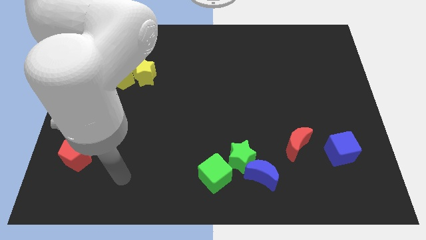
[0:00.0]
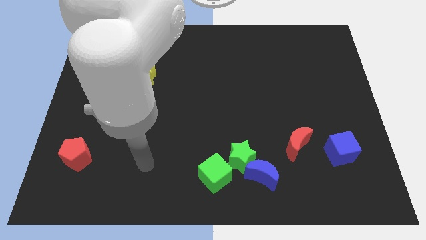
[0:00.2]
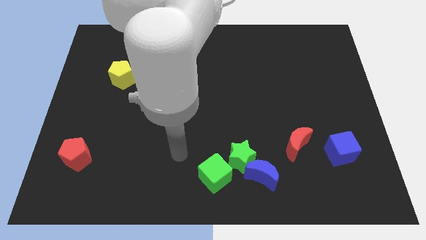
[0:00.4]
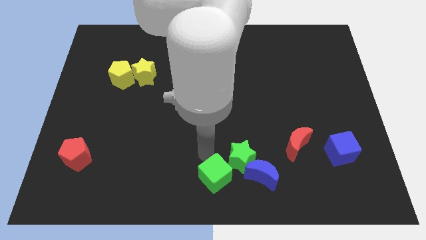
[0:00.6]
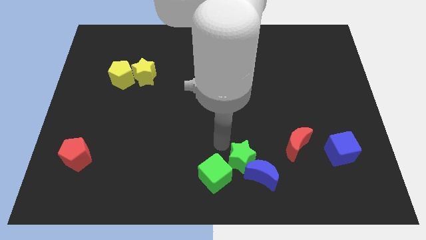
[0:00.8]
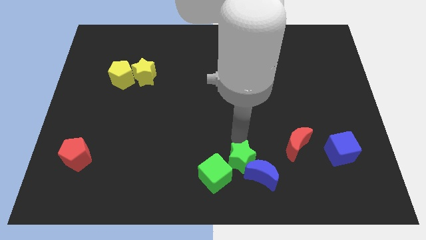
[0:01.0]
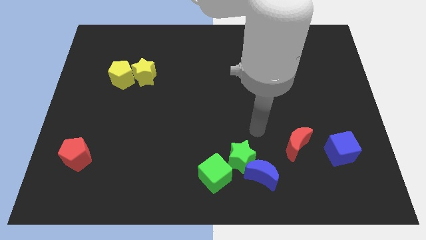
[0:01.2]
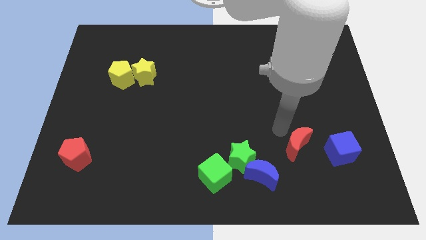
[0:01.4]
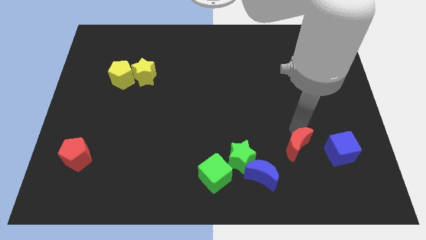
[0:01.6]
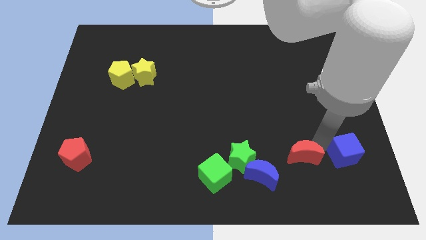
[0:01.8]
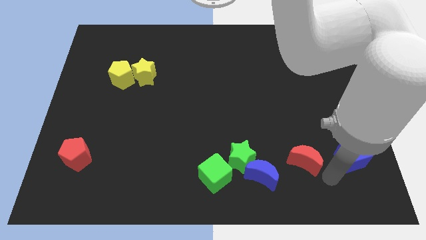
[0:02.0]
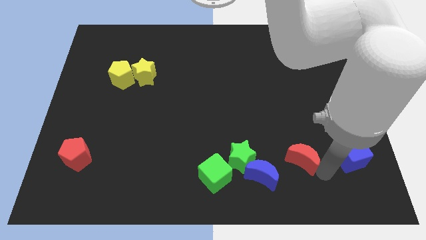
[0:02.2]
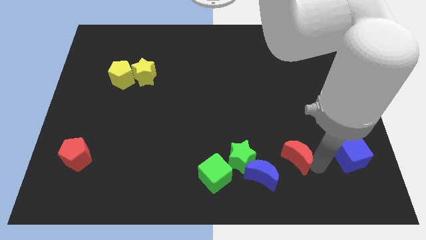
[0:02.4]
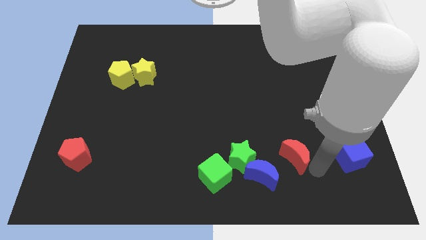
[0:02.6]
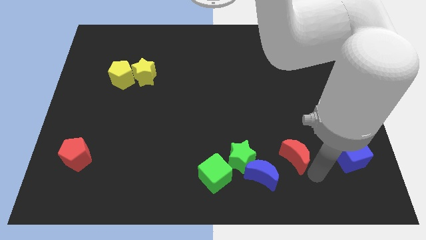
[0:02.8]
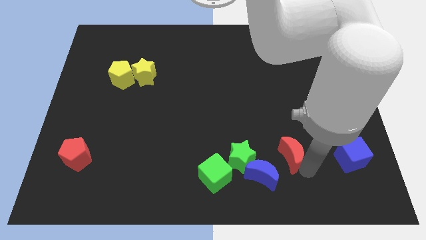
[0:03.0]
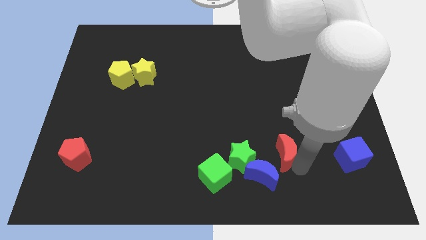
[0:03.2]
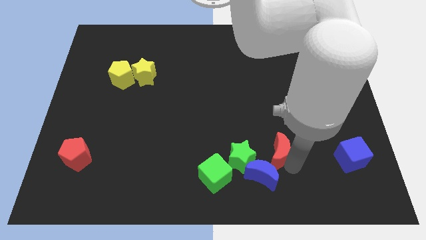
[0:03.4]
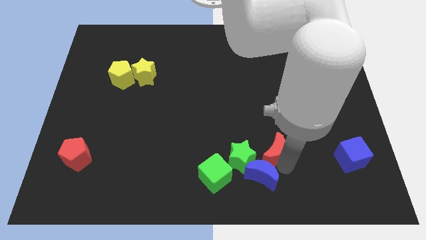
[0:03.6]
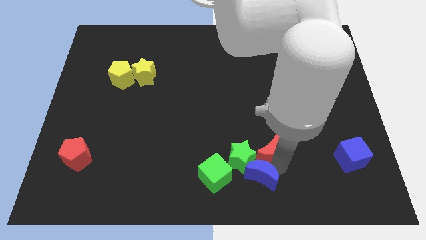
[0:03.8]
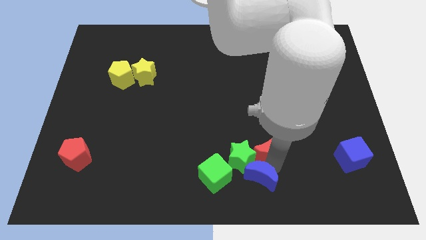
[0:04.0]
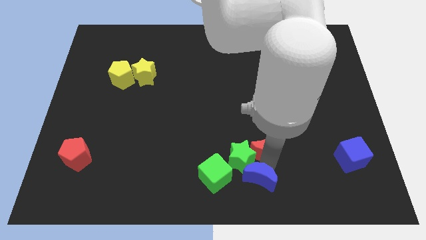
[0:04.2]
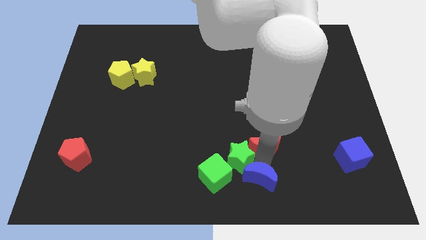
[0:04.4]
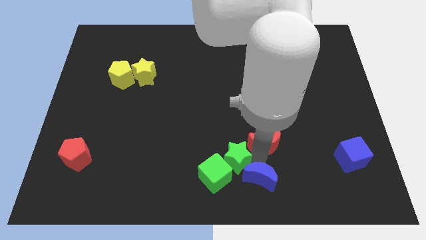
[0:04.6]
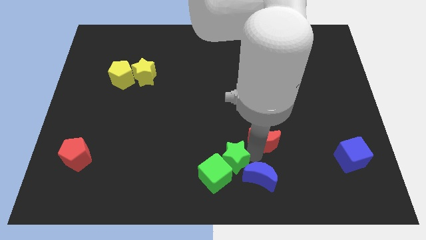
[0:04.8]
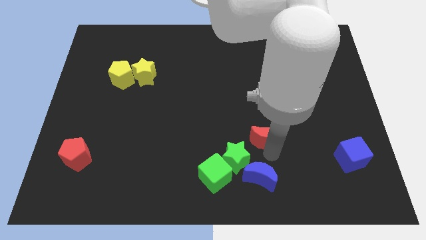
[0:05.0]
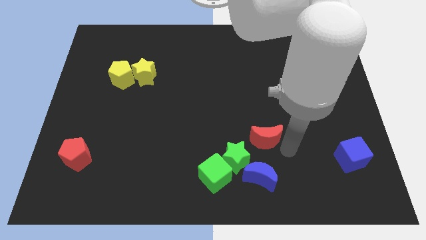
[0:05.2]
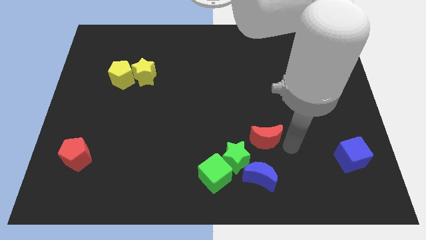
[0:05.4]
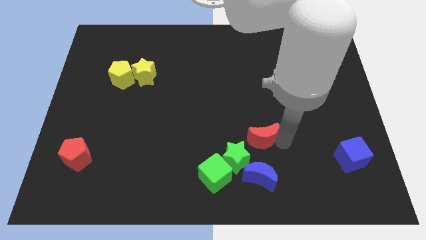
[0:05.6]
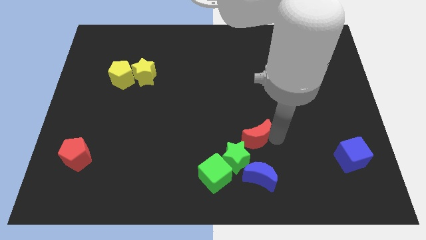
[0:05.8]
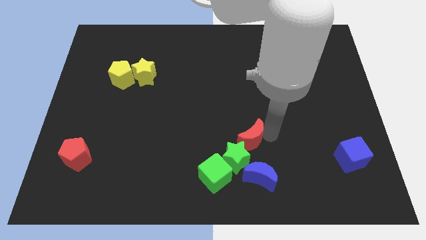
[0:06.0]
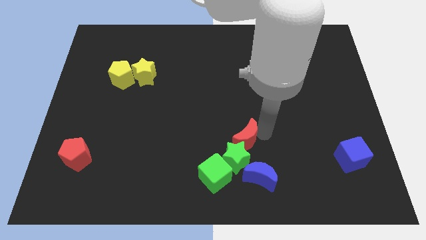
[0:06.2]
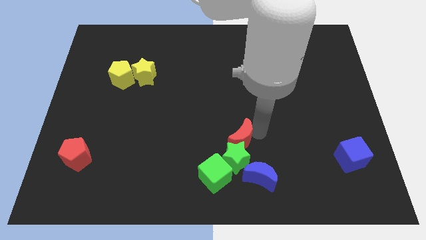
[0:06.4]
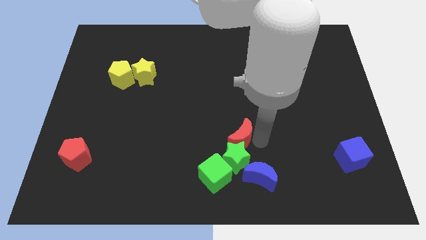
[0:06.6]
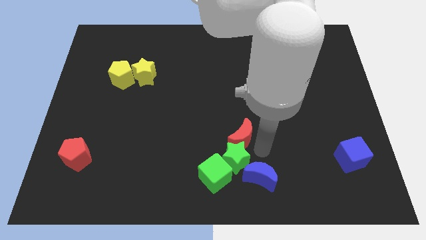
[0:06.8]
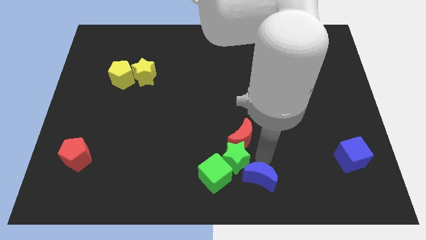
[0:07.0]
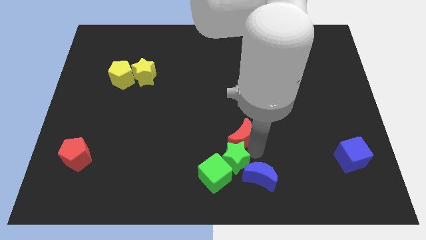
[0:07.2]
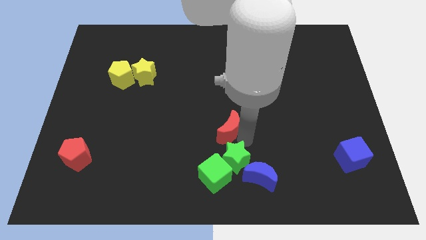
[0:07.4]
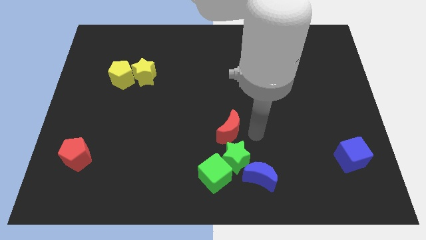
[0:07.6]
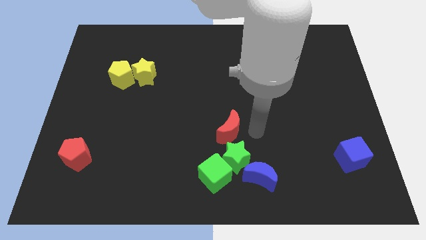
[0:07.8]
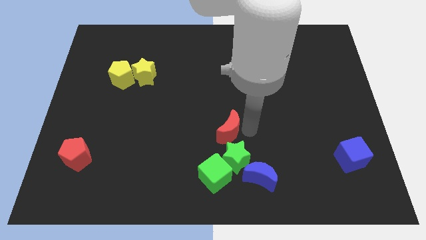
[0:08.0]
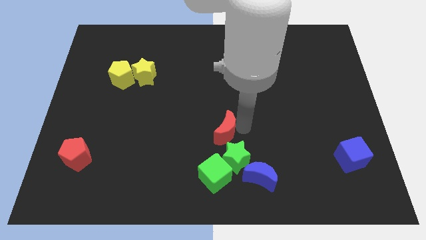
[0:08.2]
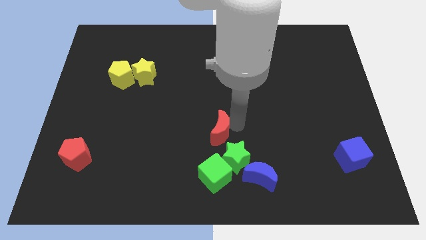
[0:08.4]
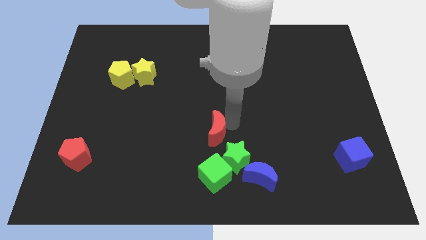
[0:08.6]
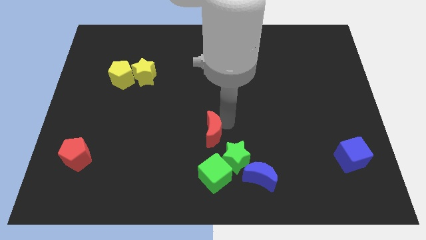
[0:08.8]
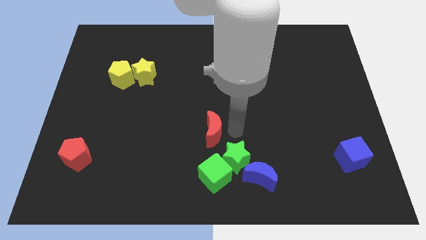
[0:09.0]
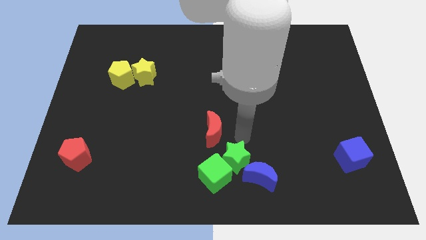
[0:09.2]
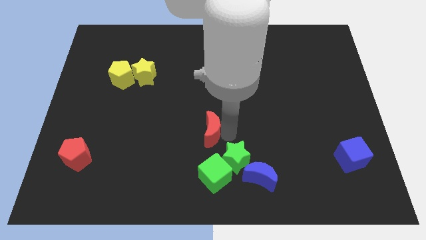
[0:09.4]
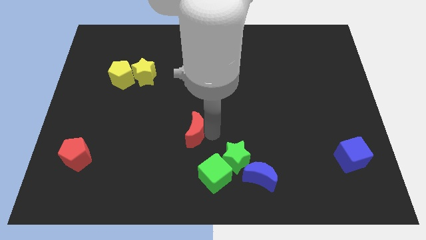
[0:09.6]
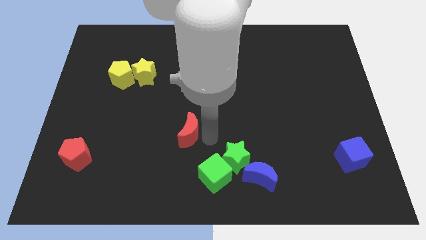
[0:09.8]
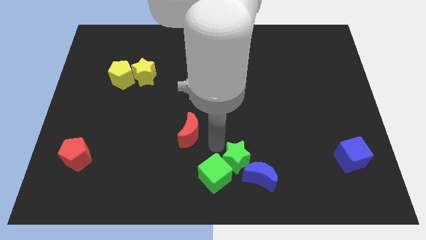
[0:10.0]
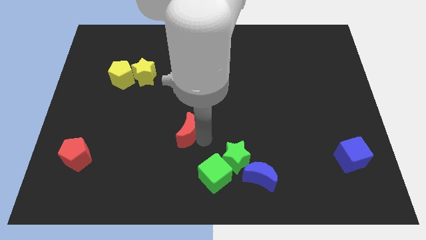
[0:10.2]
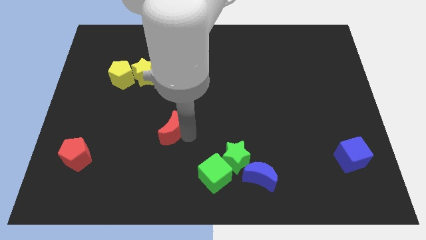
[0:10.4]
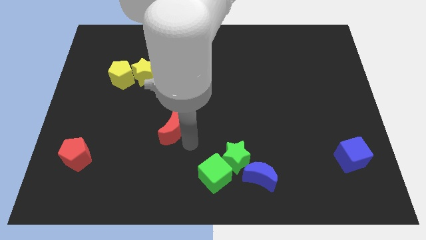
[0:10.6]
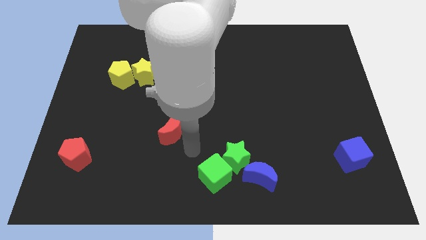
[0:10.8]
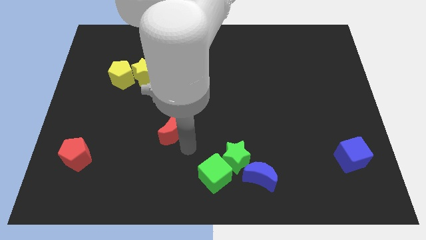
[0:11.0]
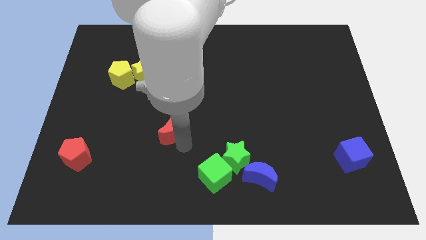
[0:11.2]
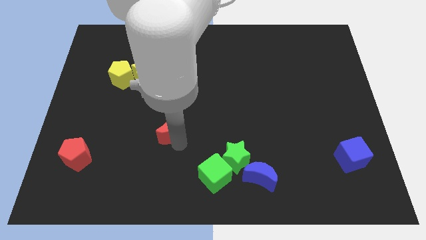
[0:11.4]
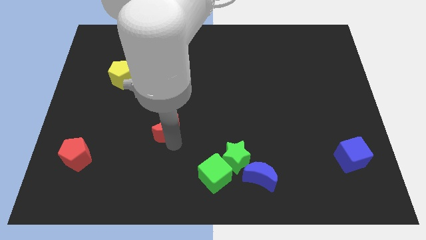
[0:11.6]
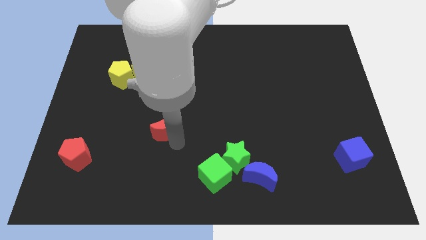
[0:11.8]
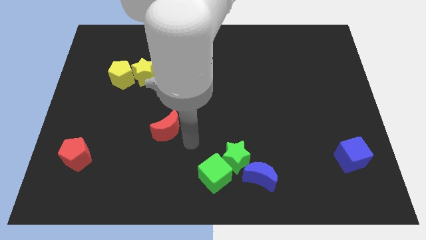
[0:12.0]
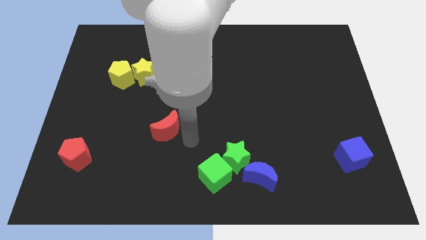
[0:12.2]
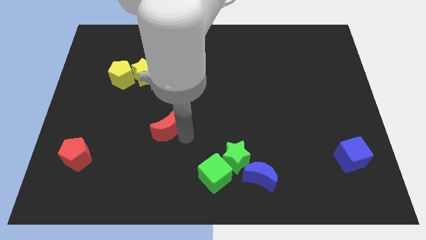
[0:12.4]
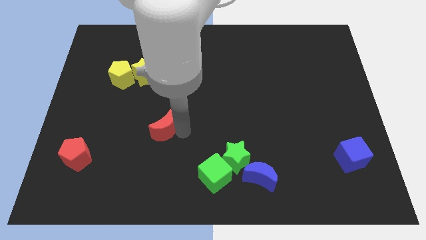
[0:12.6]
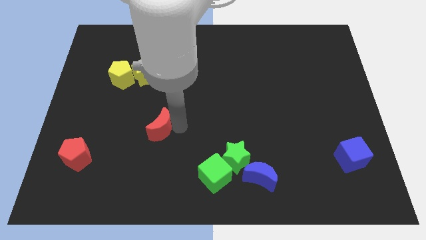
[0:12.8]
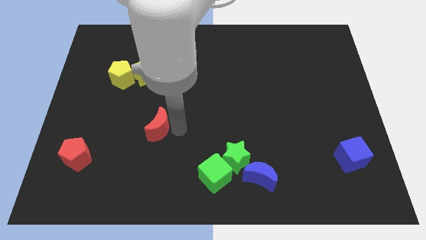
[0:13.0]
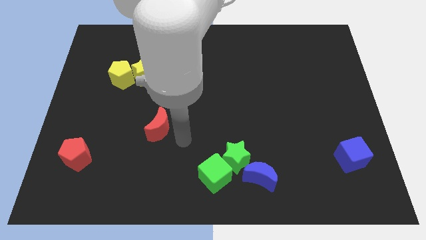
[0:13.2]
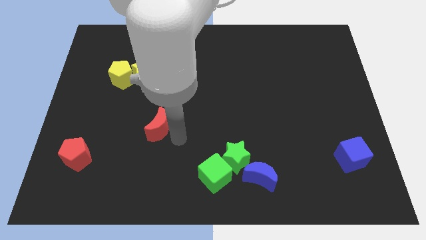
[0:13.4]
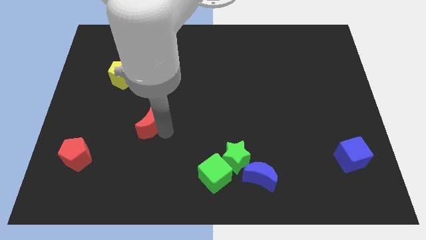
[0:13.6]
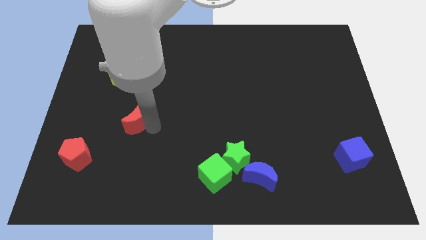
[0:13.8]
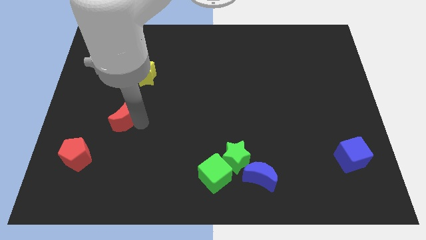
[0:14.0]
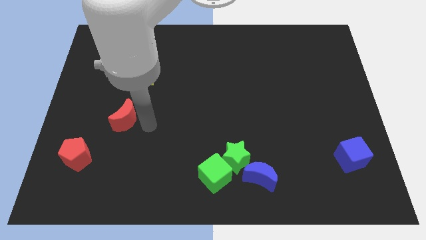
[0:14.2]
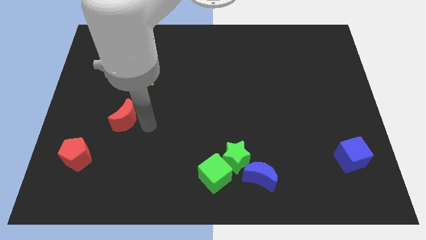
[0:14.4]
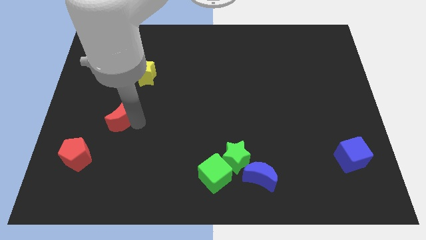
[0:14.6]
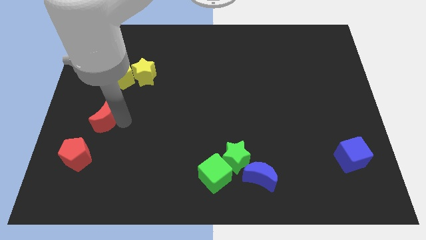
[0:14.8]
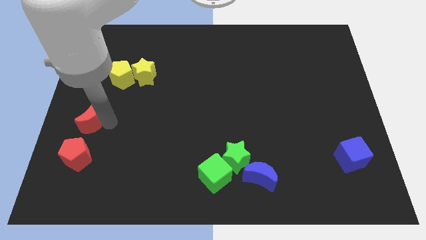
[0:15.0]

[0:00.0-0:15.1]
put the red moon to the left side
